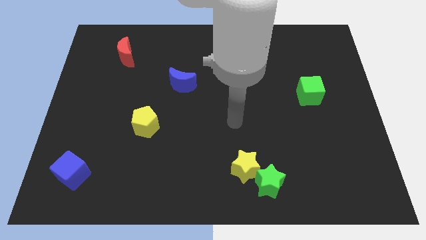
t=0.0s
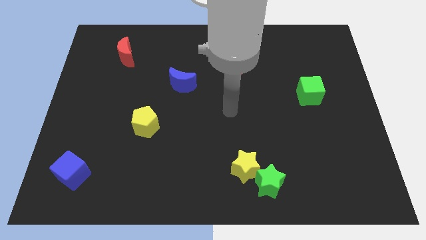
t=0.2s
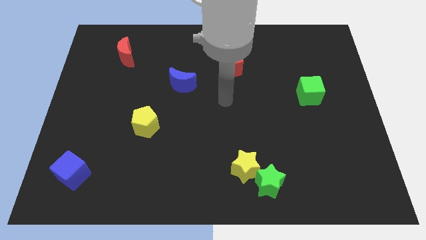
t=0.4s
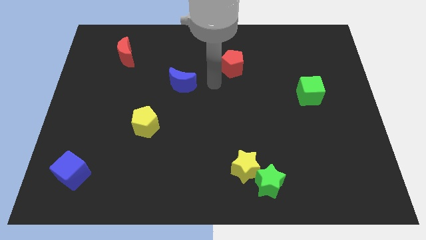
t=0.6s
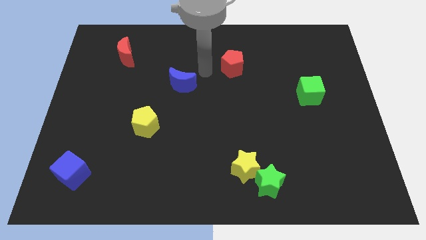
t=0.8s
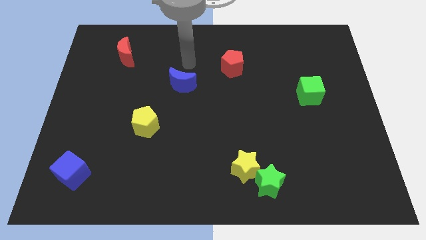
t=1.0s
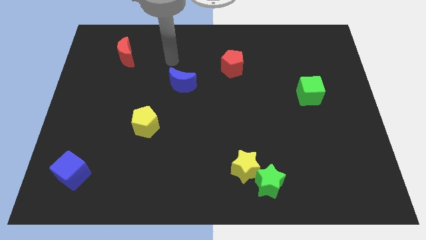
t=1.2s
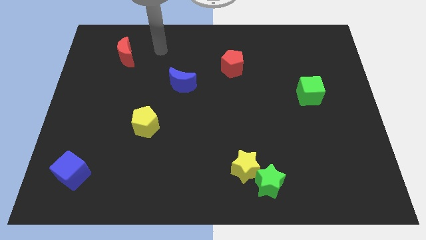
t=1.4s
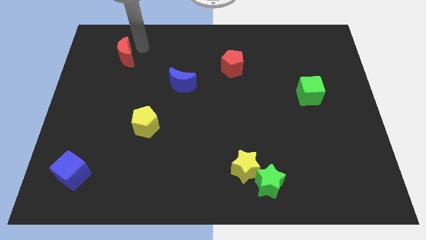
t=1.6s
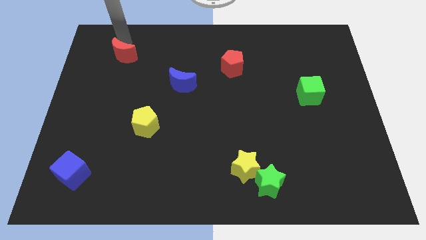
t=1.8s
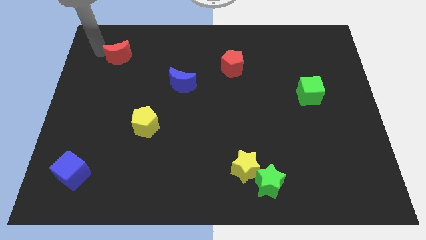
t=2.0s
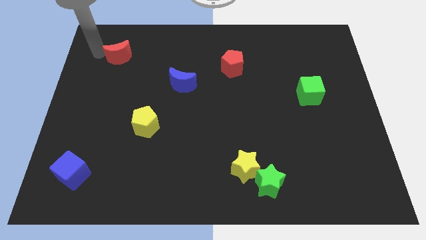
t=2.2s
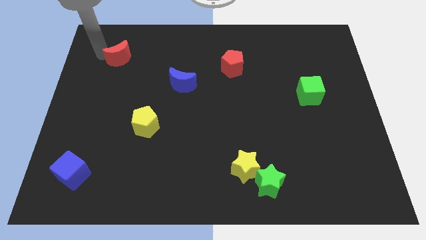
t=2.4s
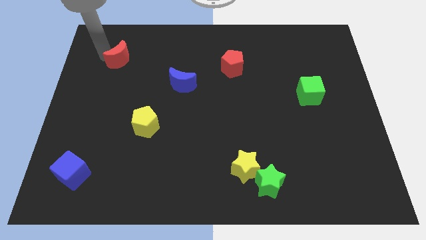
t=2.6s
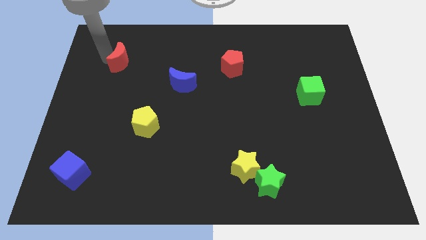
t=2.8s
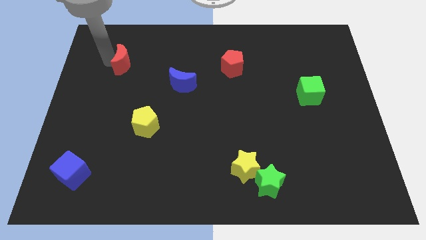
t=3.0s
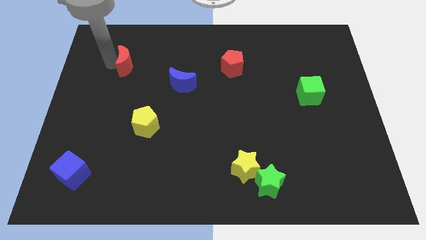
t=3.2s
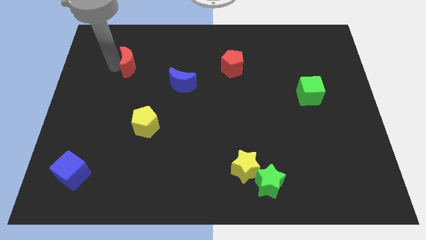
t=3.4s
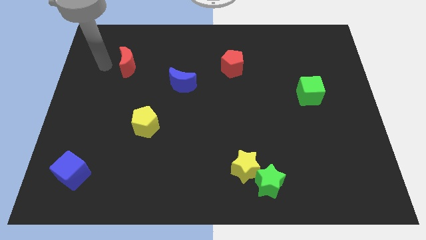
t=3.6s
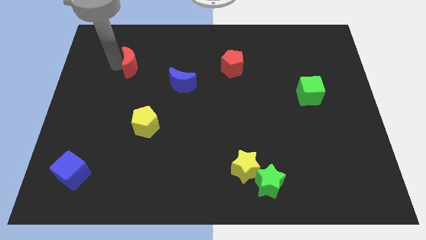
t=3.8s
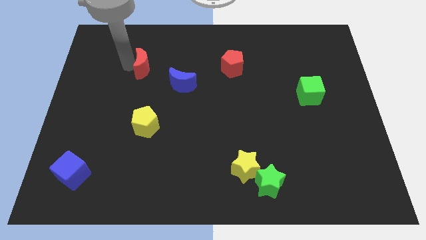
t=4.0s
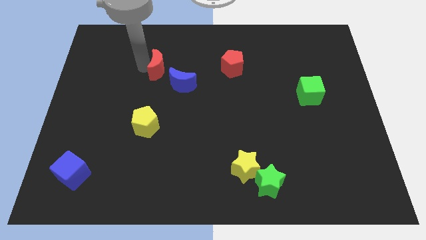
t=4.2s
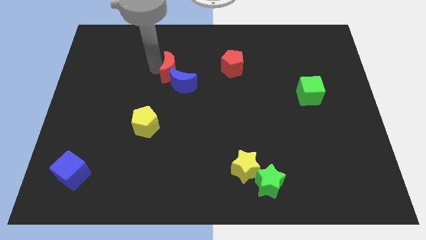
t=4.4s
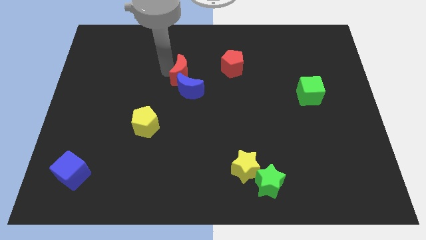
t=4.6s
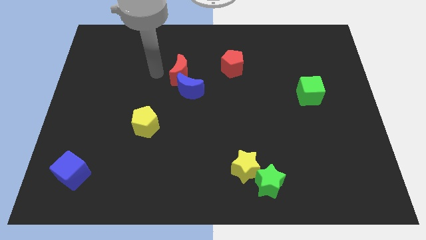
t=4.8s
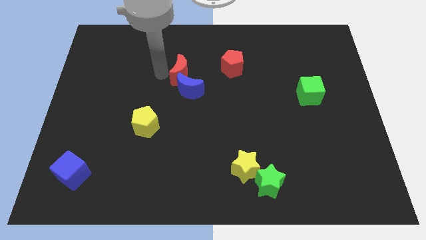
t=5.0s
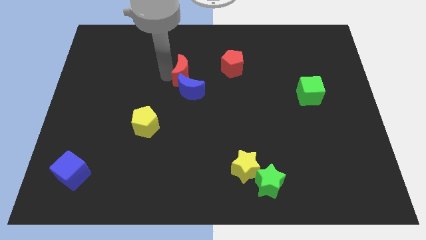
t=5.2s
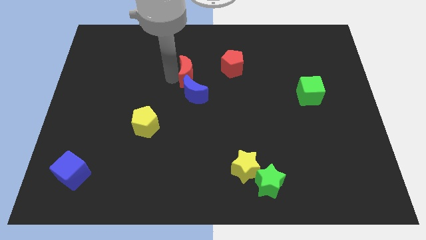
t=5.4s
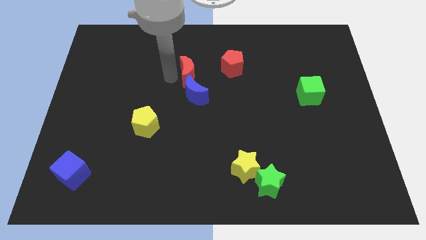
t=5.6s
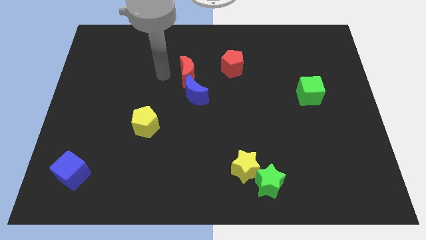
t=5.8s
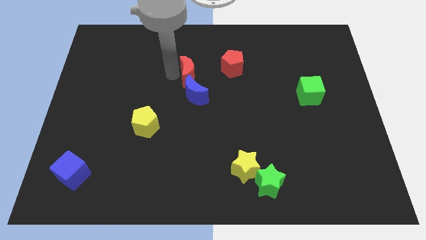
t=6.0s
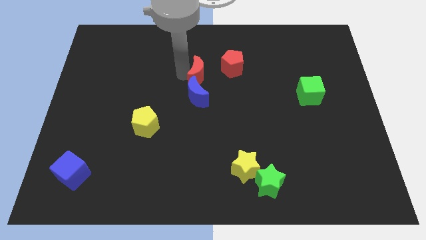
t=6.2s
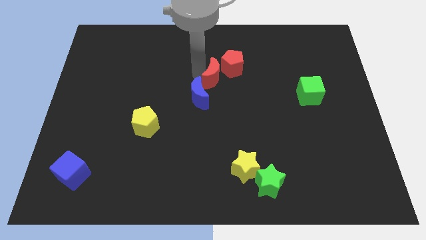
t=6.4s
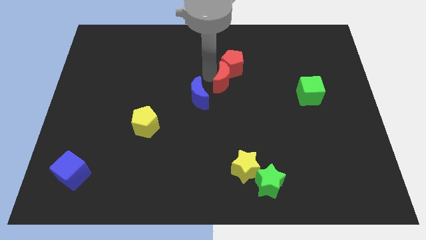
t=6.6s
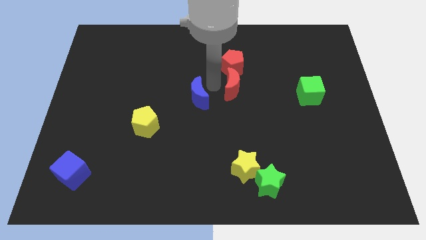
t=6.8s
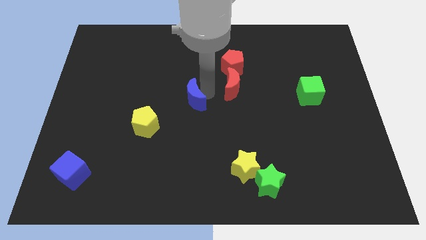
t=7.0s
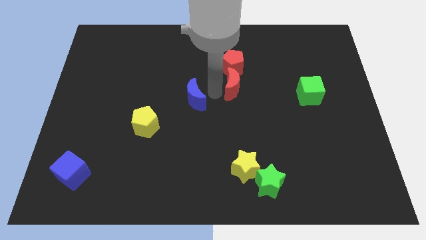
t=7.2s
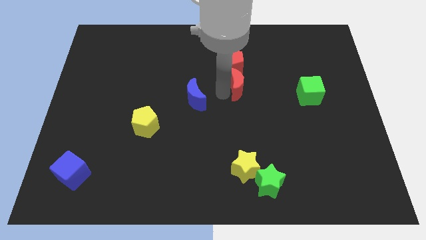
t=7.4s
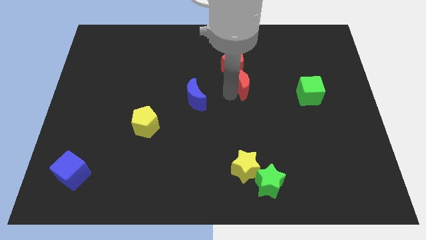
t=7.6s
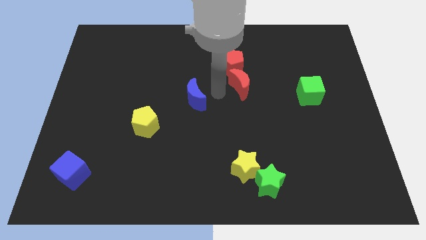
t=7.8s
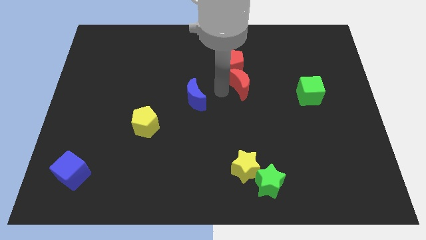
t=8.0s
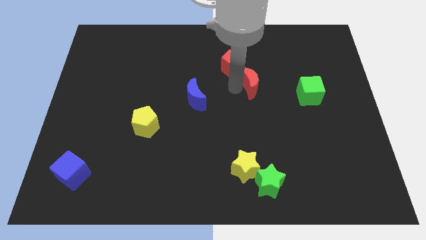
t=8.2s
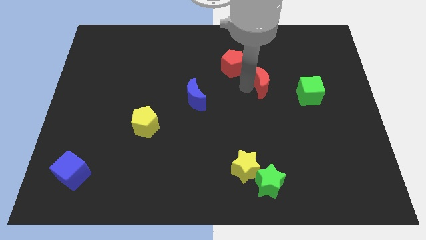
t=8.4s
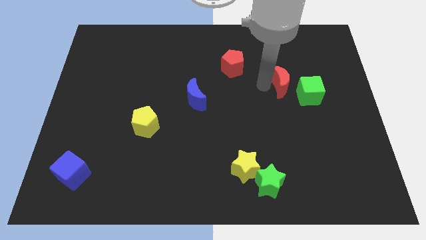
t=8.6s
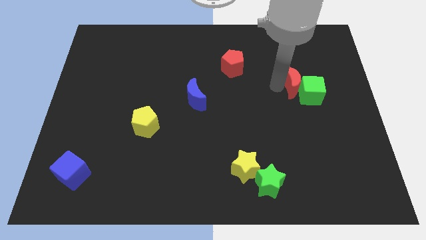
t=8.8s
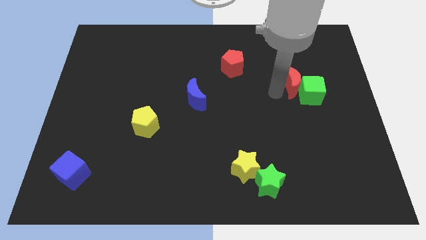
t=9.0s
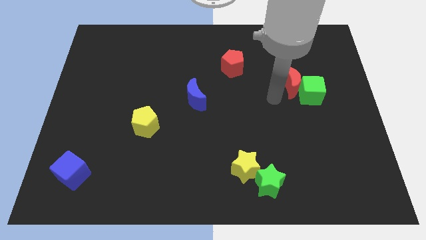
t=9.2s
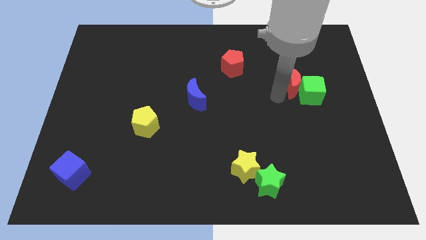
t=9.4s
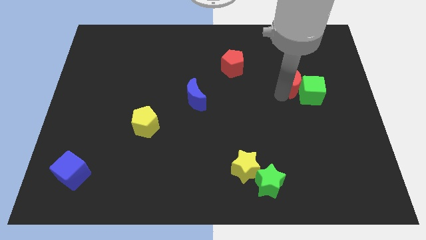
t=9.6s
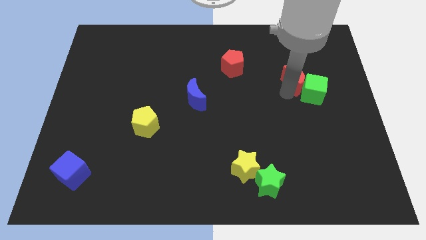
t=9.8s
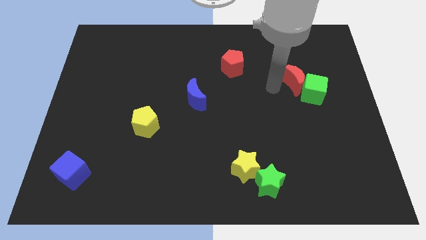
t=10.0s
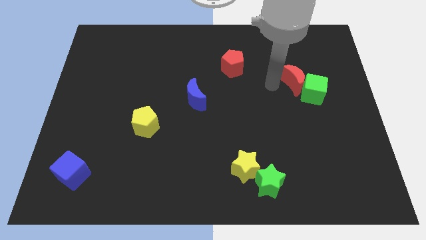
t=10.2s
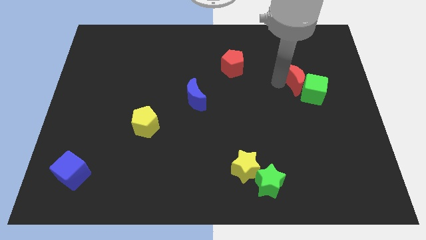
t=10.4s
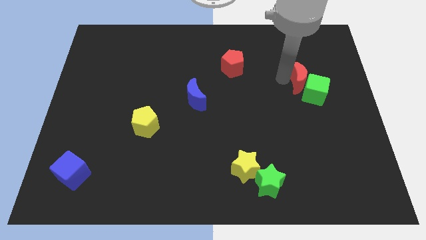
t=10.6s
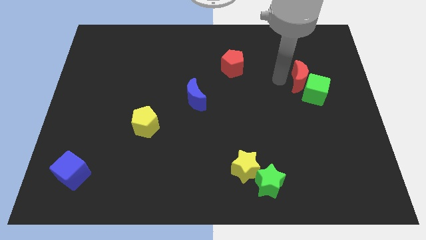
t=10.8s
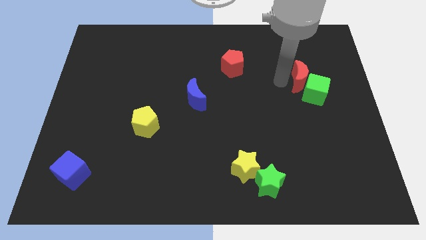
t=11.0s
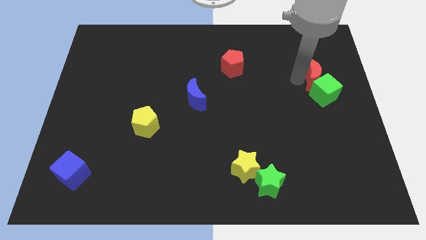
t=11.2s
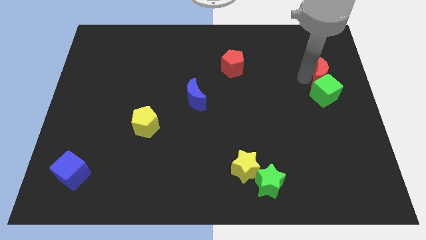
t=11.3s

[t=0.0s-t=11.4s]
slide the red moon diagonally up and to the right of the green cube

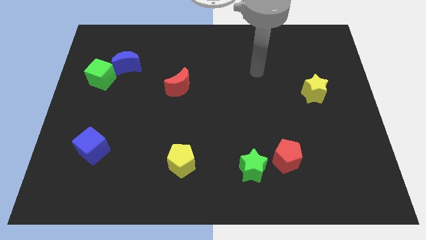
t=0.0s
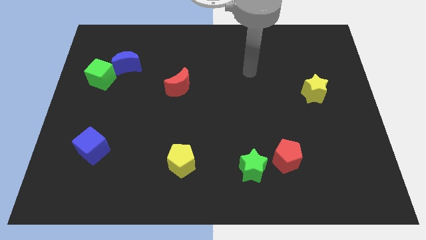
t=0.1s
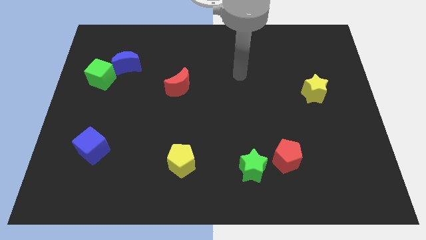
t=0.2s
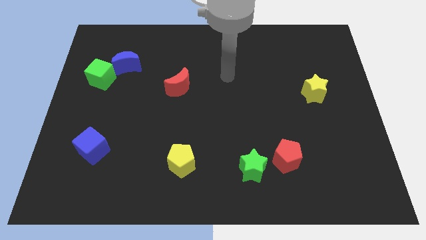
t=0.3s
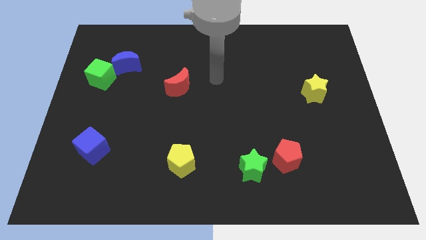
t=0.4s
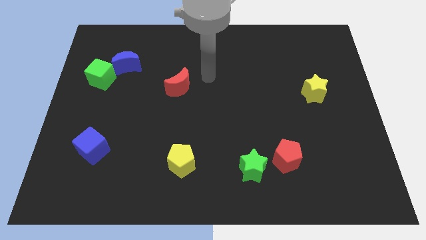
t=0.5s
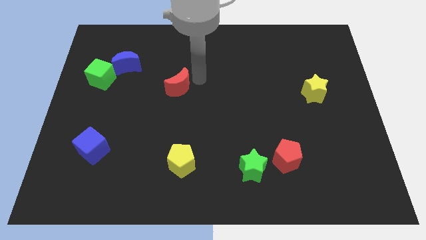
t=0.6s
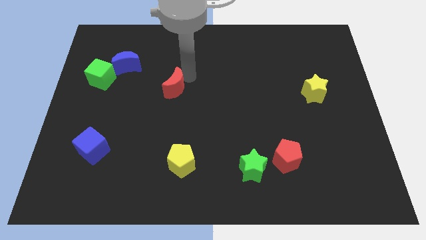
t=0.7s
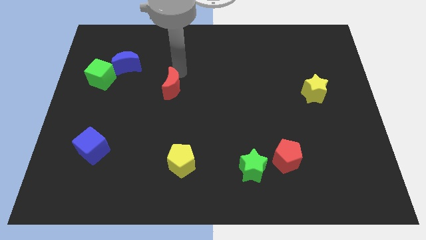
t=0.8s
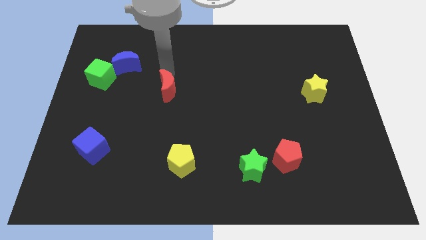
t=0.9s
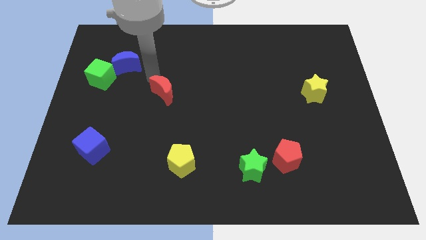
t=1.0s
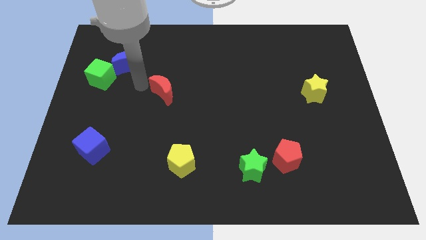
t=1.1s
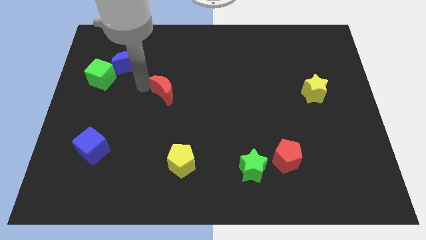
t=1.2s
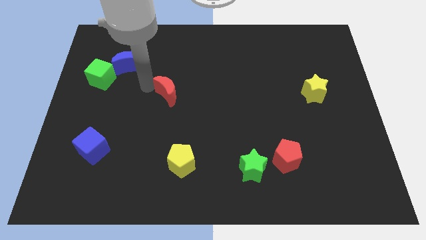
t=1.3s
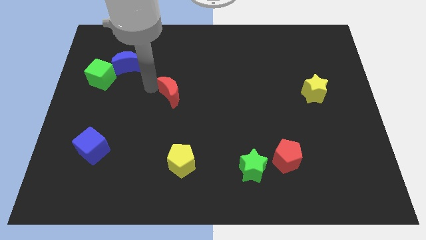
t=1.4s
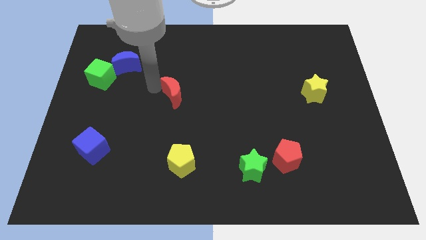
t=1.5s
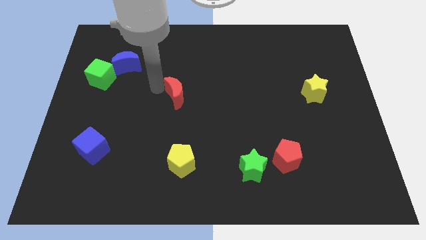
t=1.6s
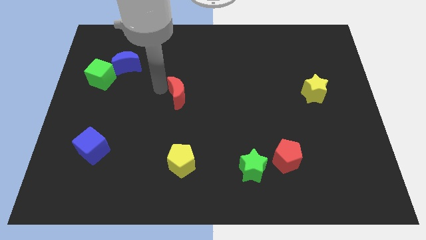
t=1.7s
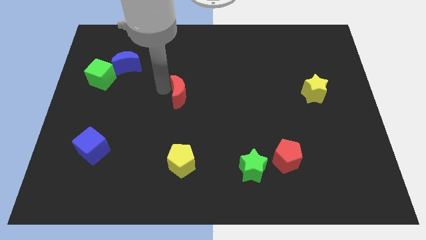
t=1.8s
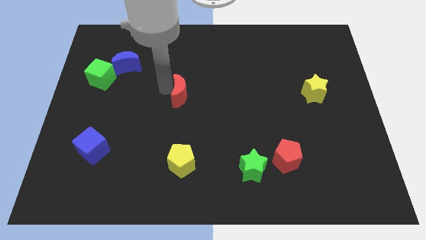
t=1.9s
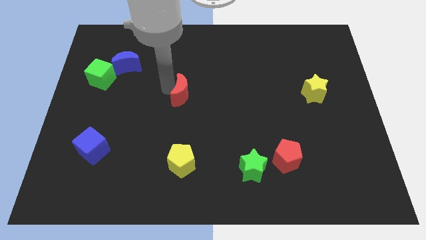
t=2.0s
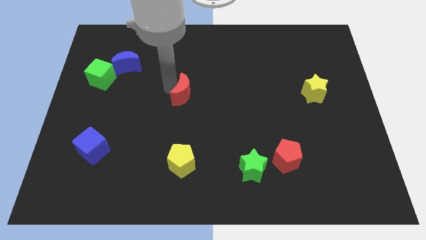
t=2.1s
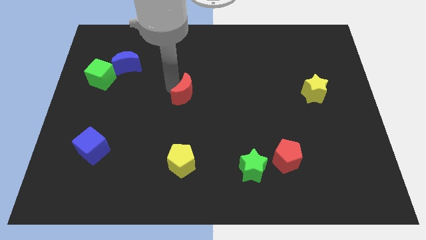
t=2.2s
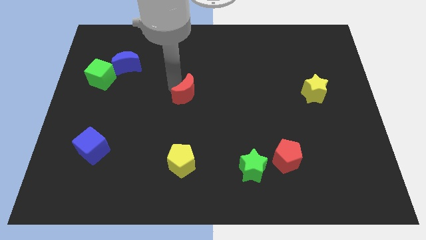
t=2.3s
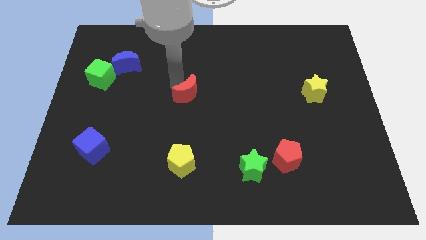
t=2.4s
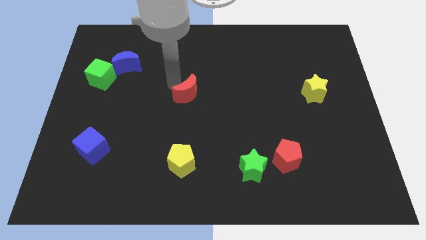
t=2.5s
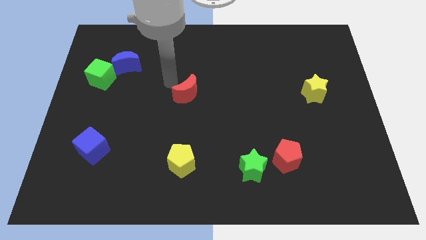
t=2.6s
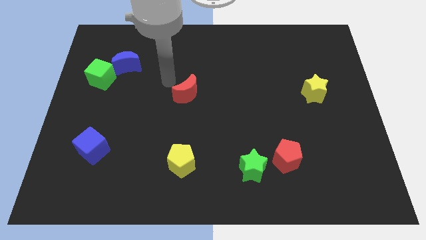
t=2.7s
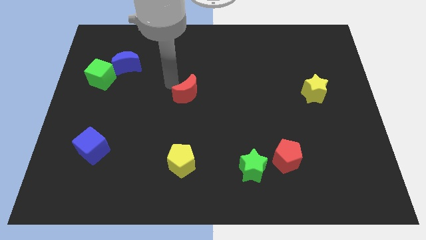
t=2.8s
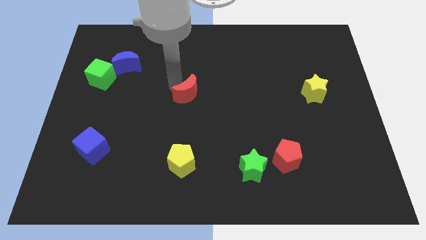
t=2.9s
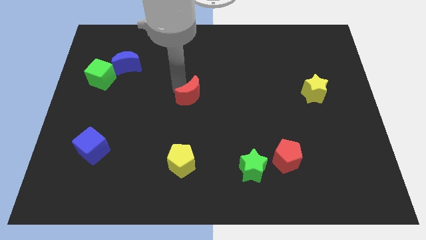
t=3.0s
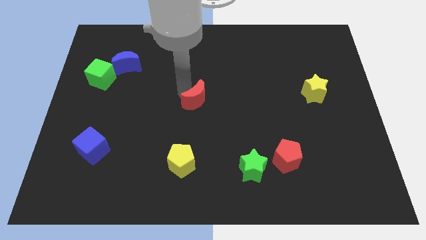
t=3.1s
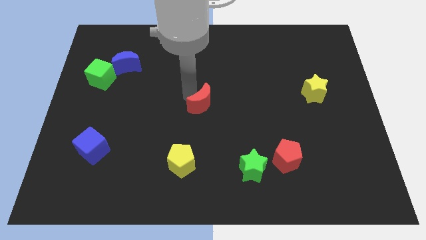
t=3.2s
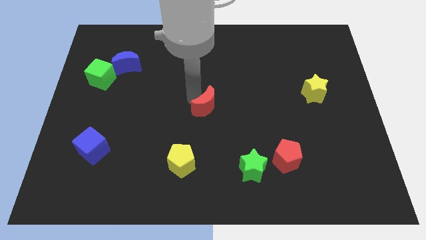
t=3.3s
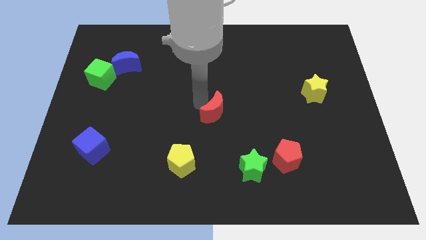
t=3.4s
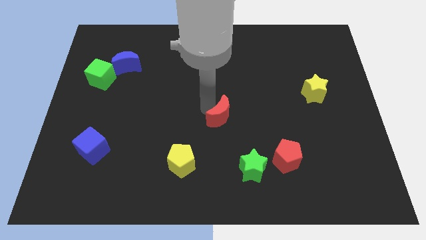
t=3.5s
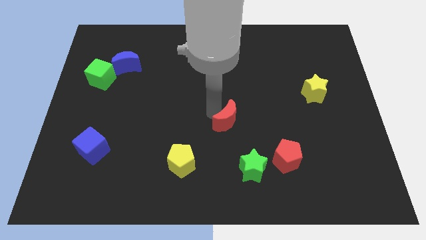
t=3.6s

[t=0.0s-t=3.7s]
push the red moon above the green star
